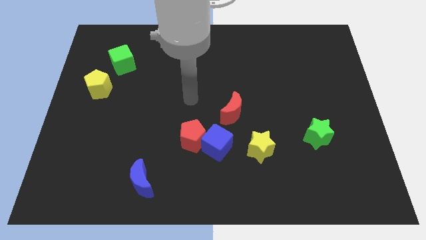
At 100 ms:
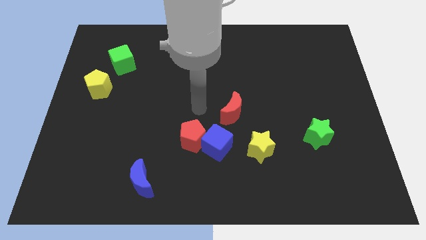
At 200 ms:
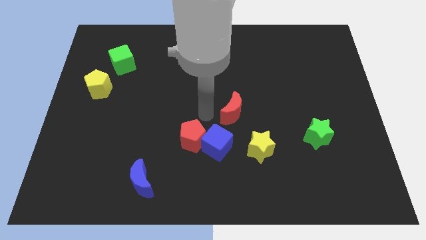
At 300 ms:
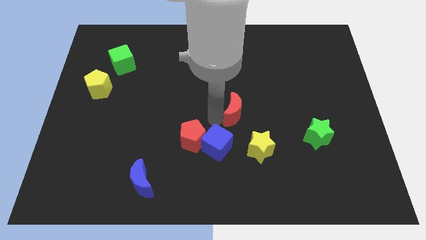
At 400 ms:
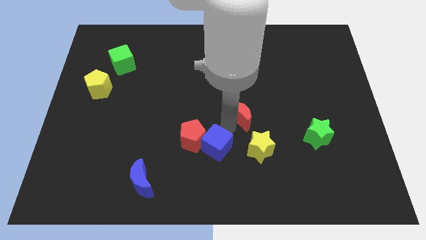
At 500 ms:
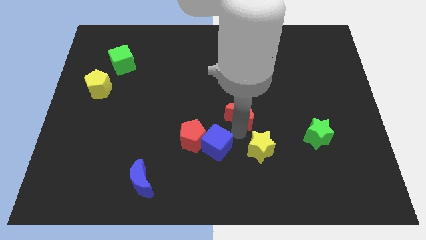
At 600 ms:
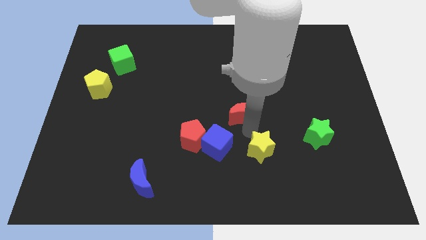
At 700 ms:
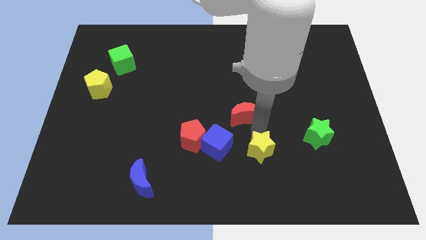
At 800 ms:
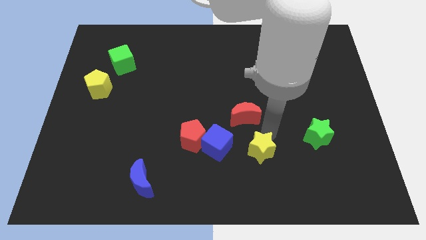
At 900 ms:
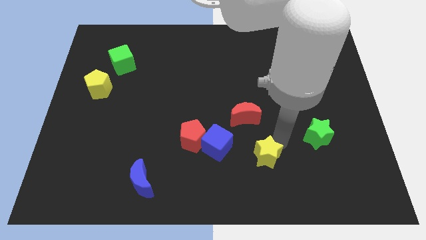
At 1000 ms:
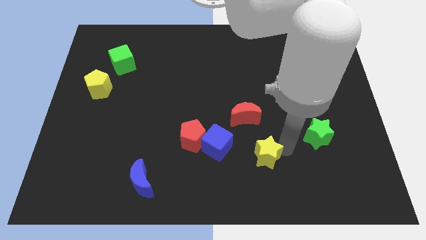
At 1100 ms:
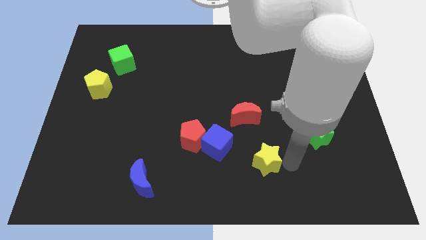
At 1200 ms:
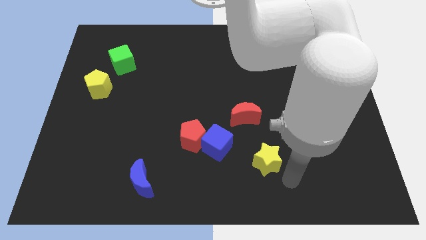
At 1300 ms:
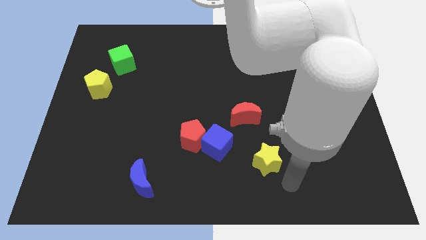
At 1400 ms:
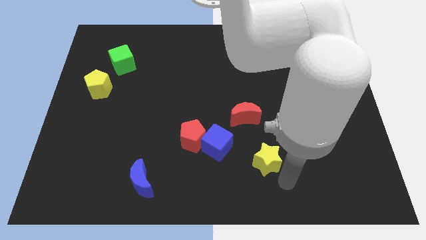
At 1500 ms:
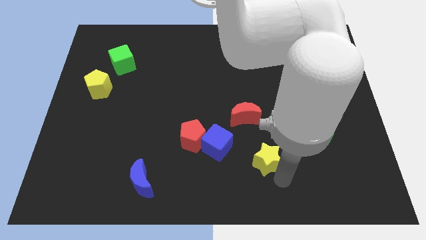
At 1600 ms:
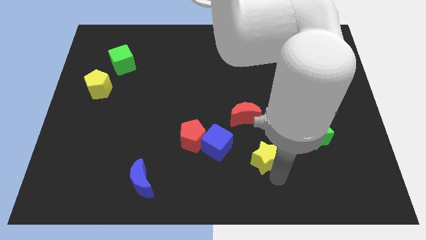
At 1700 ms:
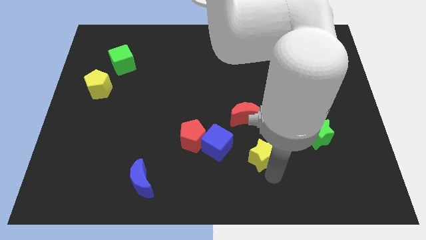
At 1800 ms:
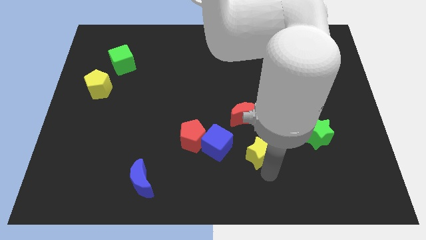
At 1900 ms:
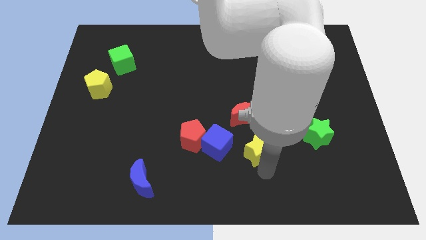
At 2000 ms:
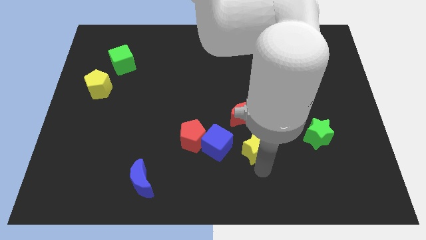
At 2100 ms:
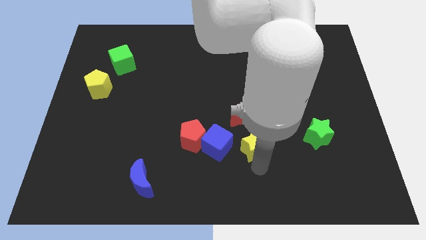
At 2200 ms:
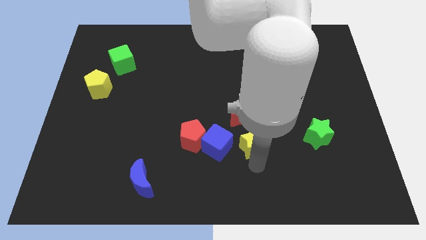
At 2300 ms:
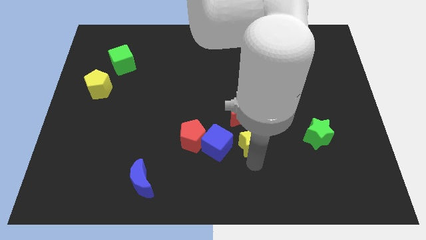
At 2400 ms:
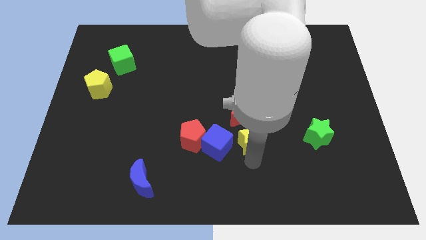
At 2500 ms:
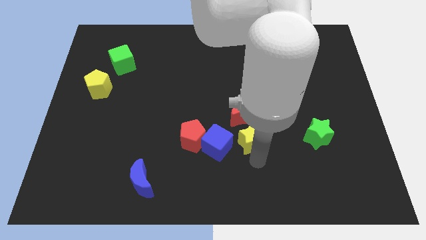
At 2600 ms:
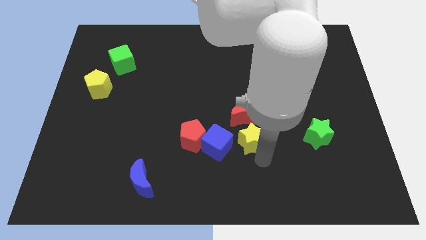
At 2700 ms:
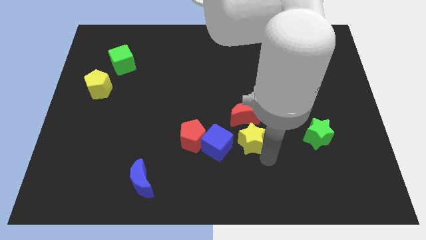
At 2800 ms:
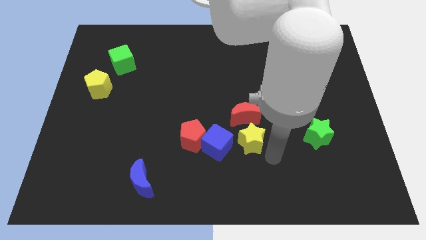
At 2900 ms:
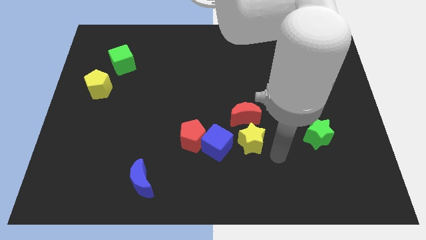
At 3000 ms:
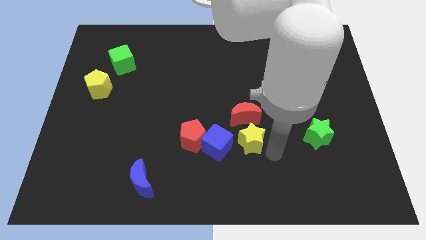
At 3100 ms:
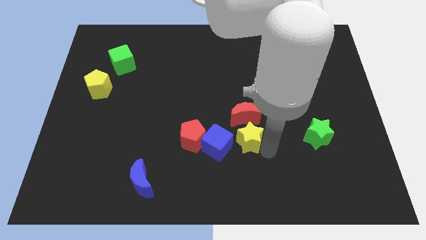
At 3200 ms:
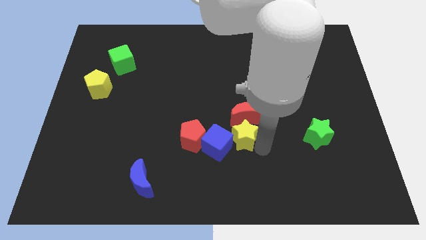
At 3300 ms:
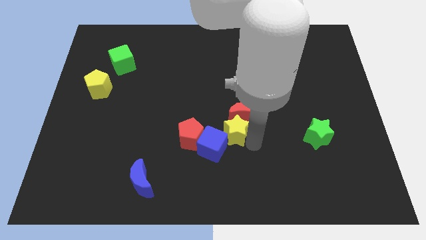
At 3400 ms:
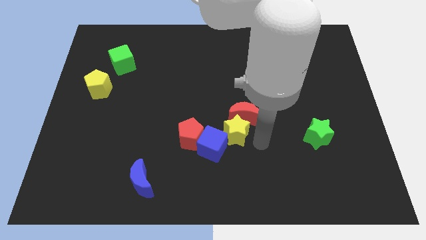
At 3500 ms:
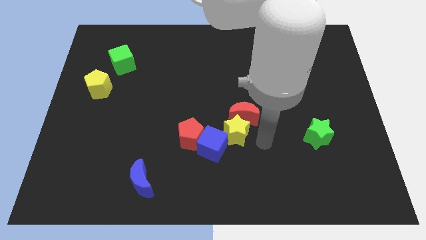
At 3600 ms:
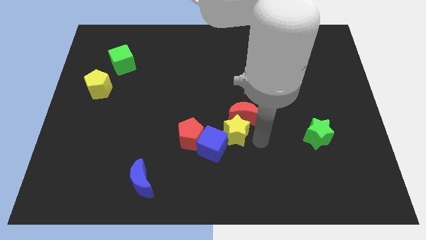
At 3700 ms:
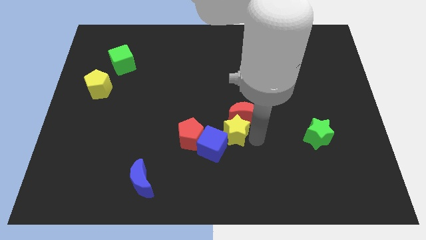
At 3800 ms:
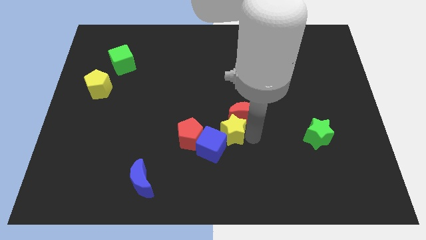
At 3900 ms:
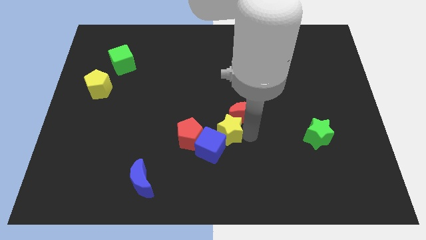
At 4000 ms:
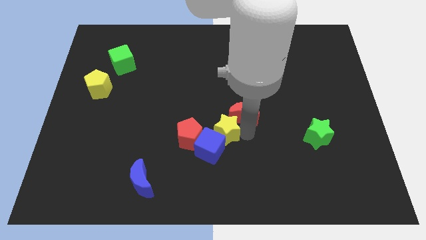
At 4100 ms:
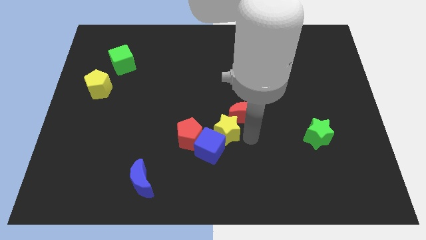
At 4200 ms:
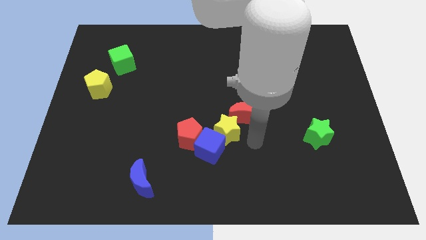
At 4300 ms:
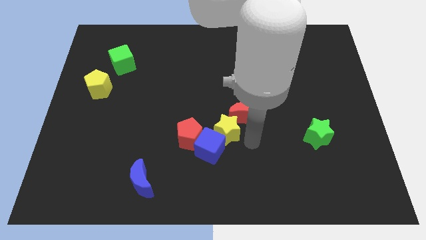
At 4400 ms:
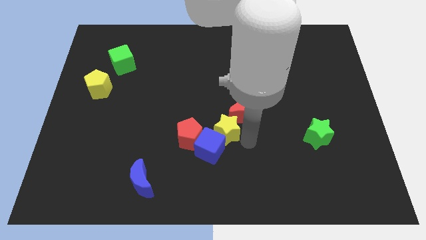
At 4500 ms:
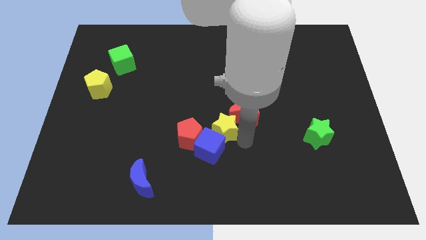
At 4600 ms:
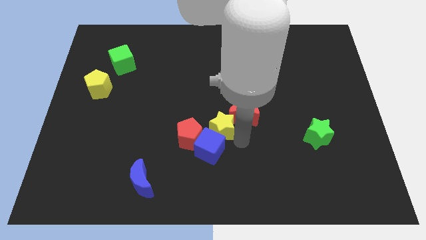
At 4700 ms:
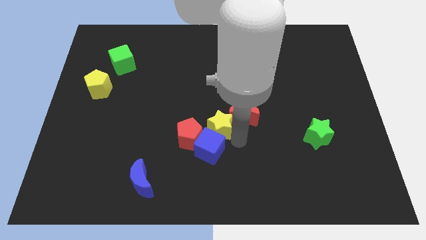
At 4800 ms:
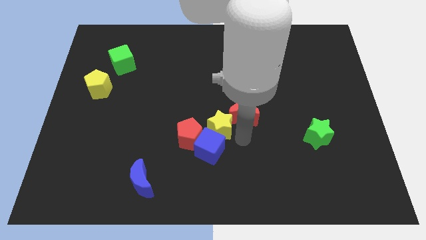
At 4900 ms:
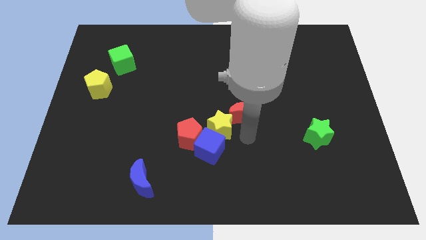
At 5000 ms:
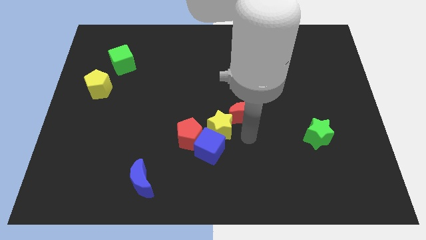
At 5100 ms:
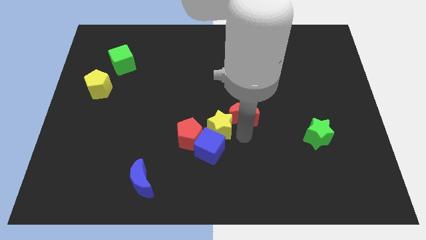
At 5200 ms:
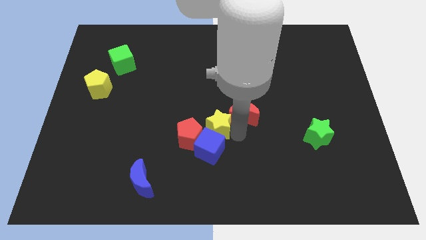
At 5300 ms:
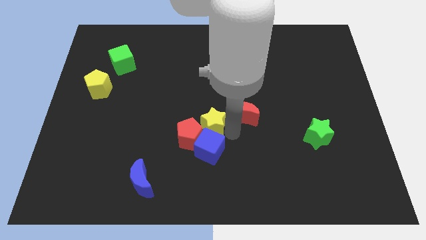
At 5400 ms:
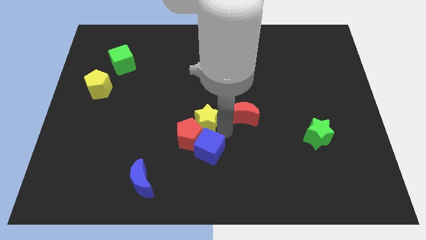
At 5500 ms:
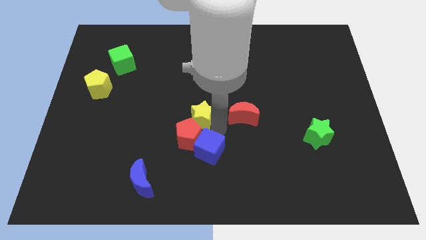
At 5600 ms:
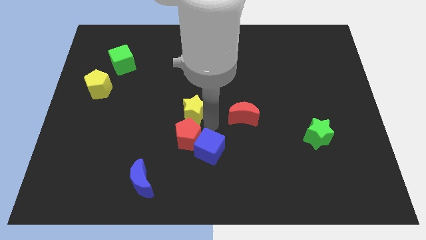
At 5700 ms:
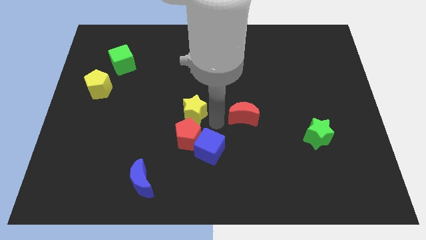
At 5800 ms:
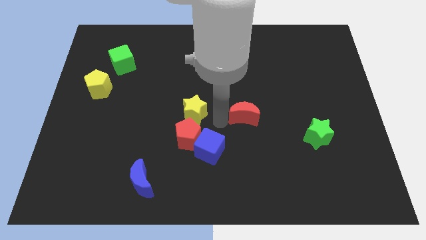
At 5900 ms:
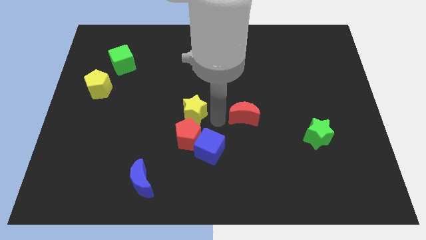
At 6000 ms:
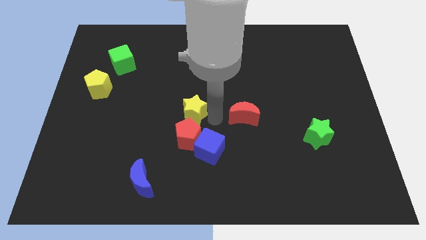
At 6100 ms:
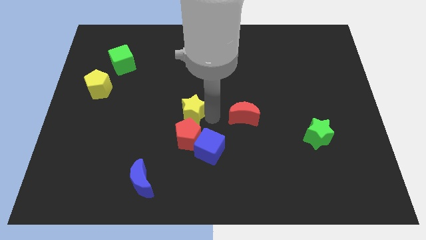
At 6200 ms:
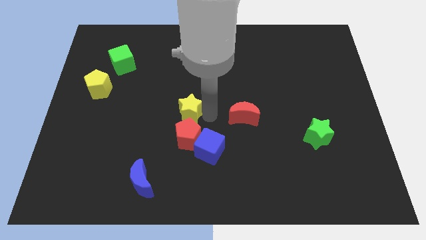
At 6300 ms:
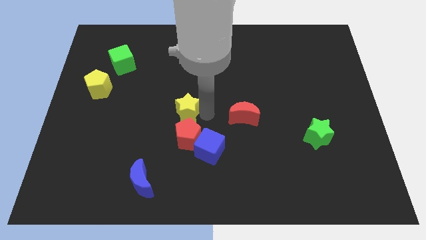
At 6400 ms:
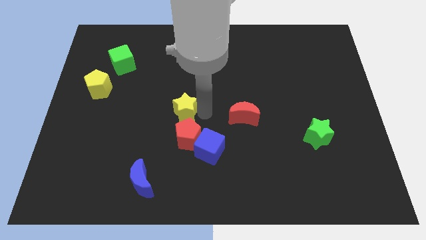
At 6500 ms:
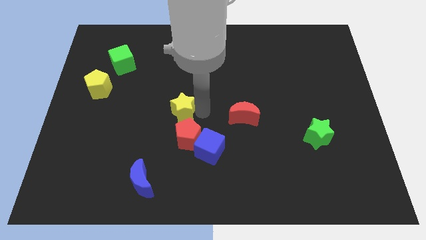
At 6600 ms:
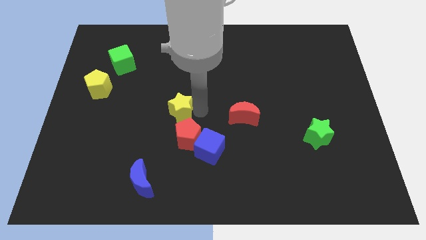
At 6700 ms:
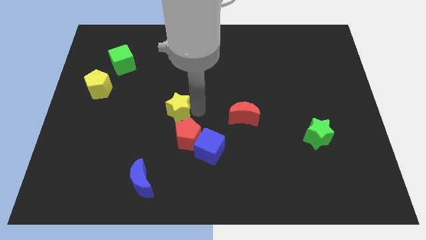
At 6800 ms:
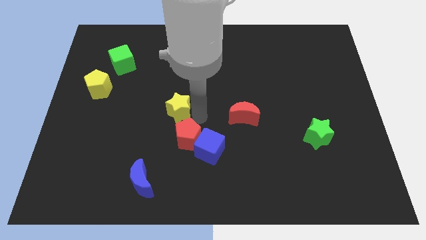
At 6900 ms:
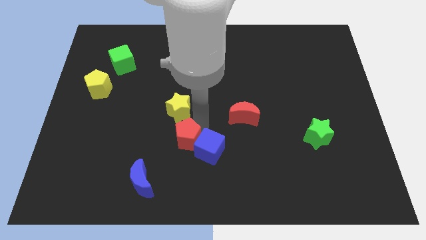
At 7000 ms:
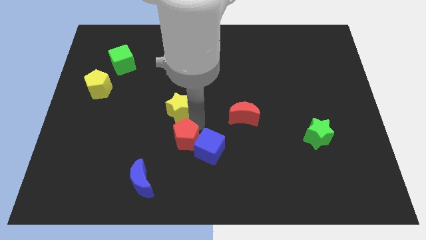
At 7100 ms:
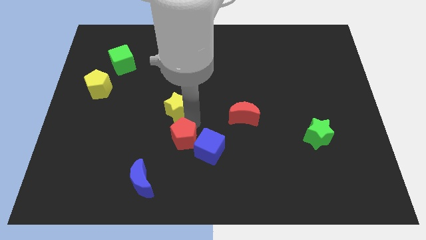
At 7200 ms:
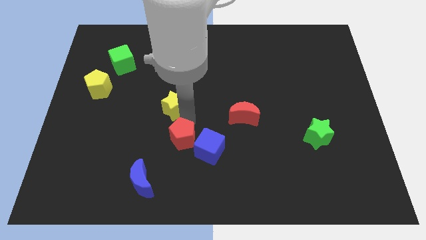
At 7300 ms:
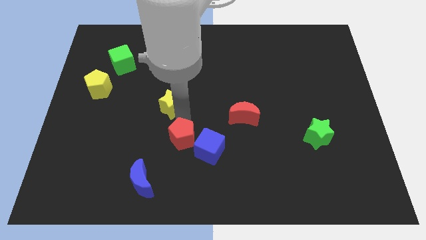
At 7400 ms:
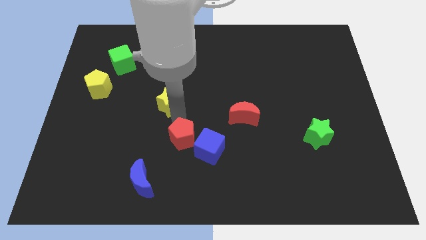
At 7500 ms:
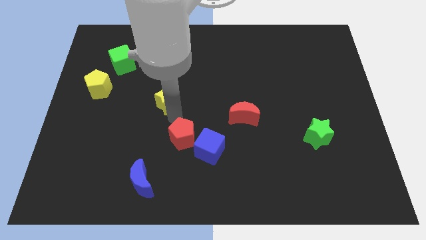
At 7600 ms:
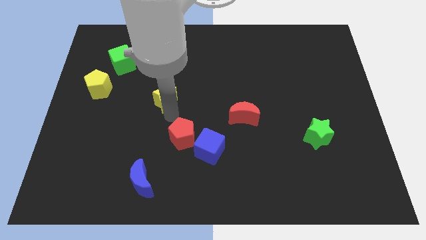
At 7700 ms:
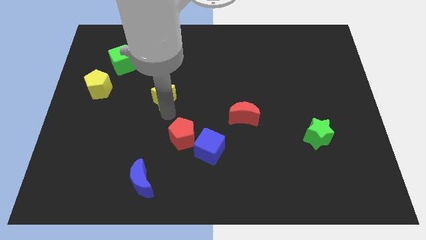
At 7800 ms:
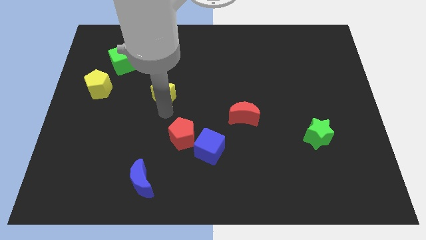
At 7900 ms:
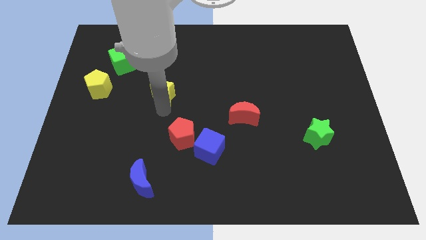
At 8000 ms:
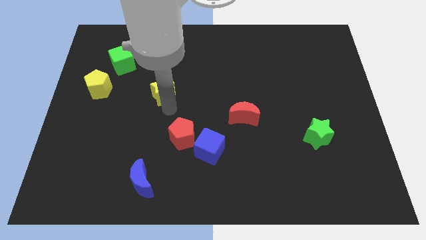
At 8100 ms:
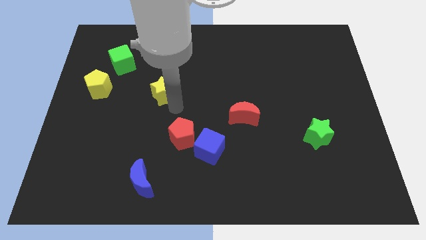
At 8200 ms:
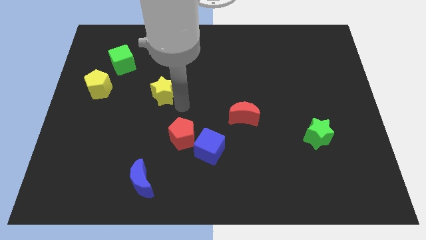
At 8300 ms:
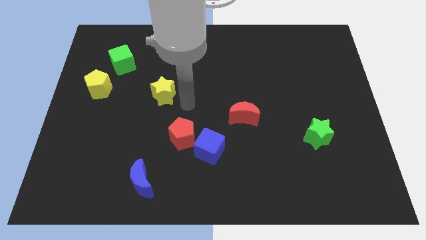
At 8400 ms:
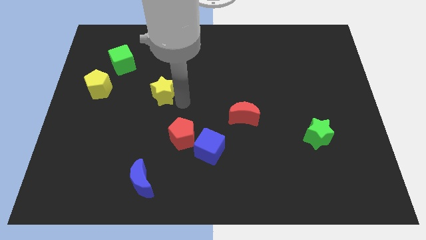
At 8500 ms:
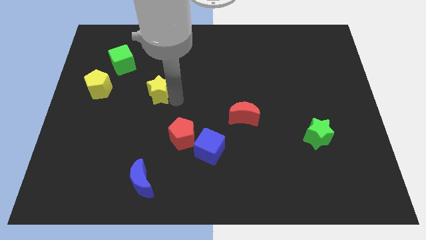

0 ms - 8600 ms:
push the yellow star to the right of the yellow pentagon
